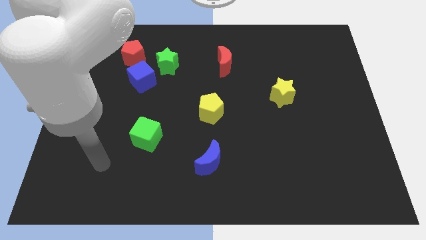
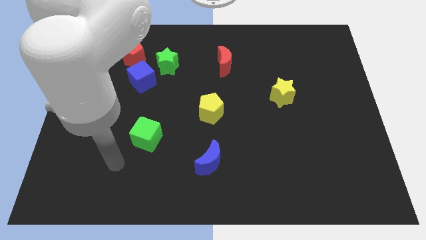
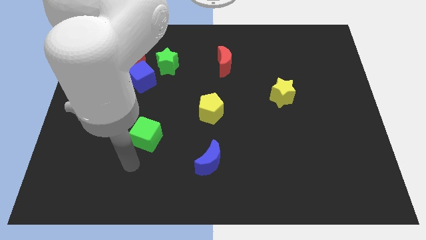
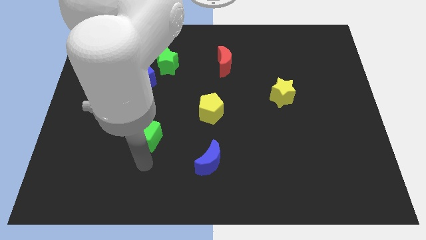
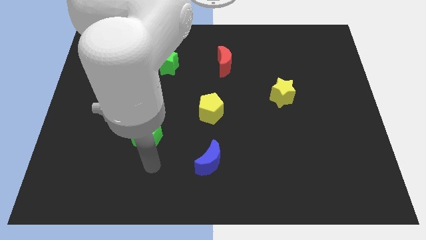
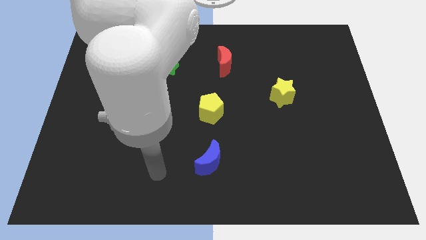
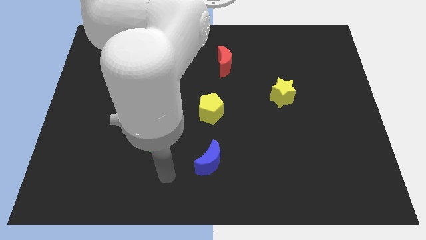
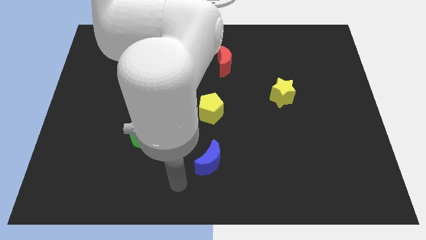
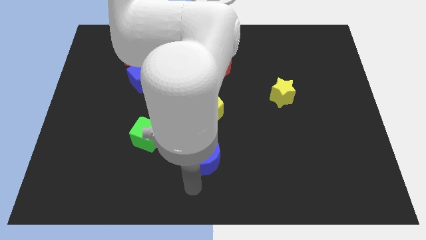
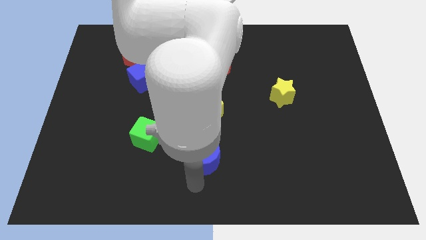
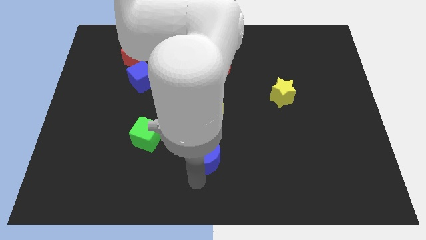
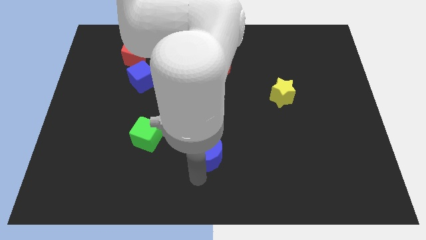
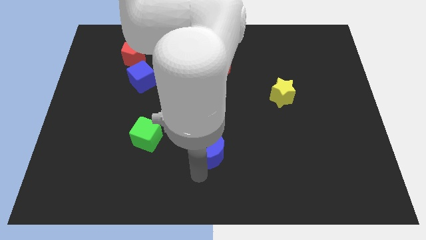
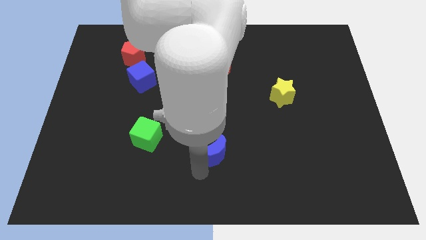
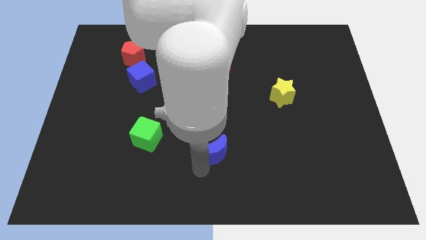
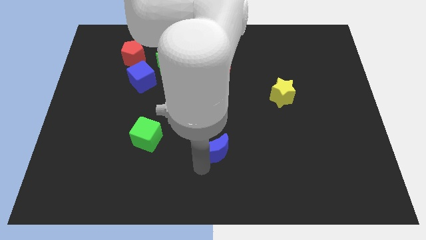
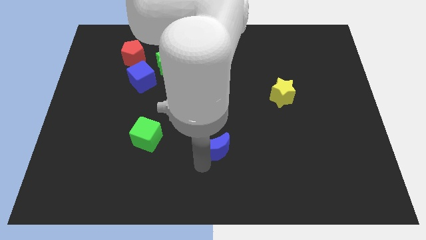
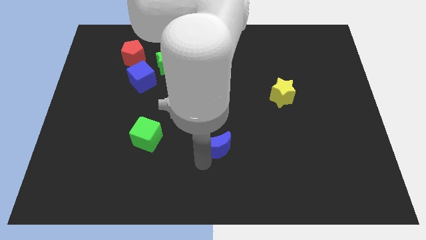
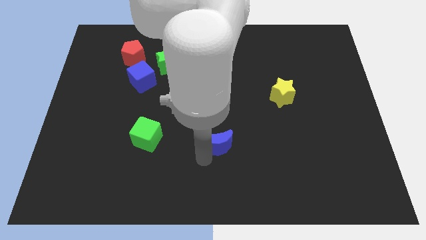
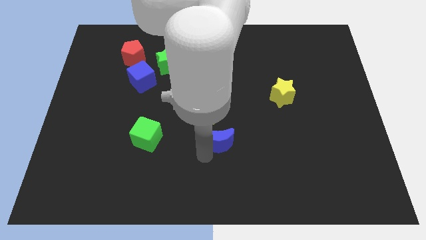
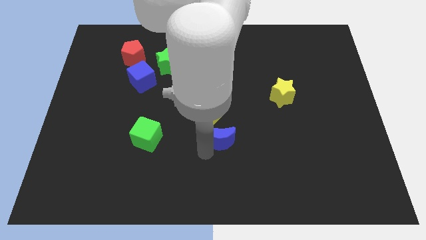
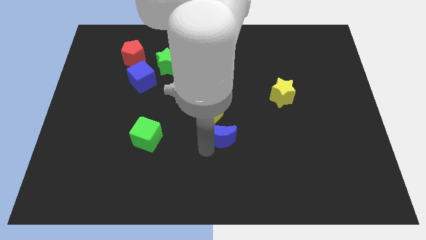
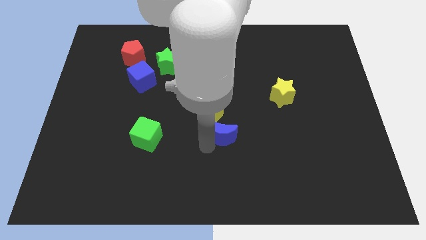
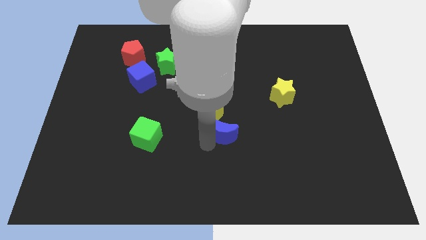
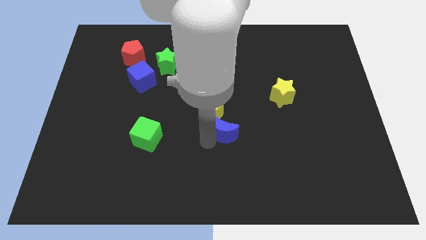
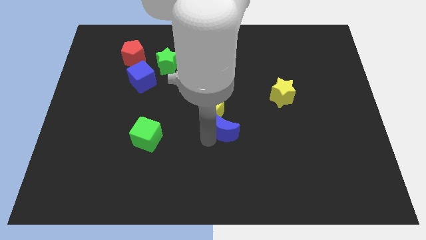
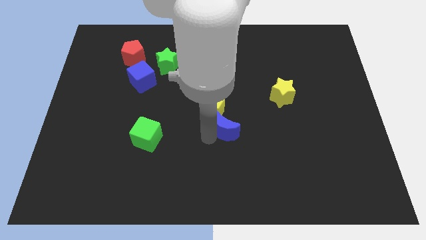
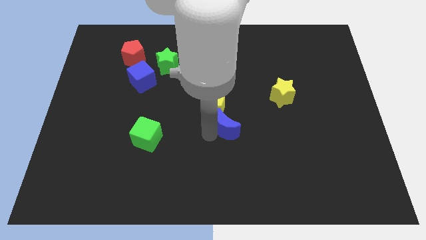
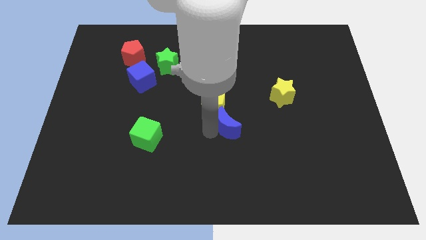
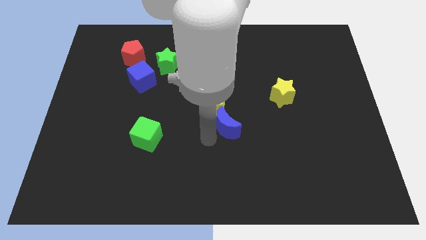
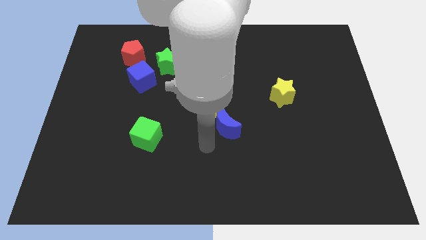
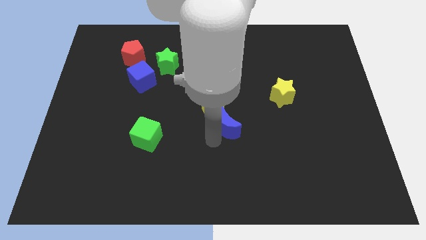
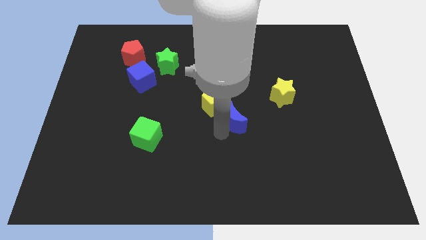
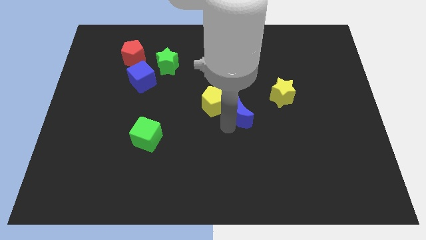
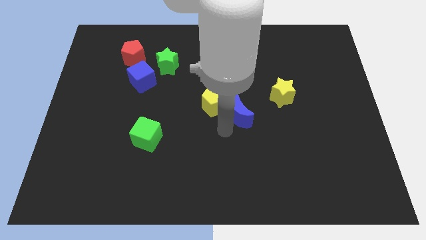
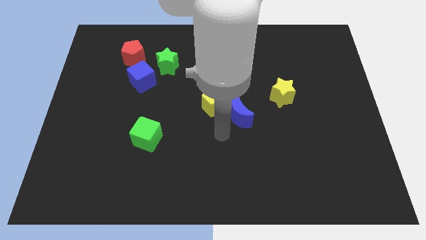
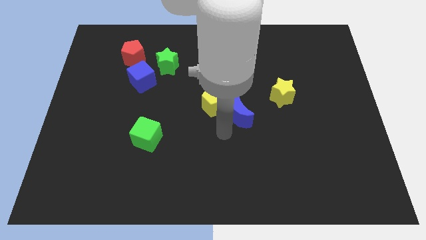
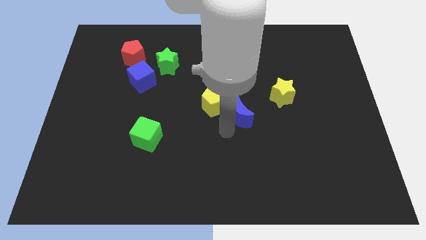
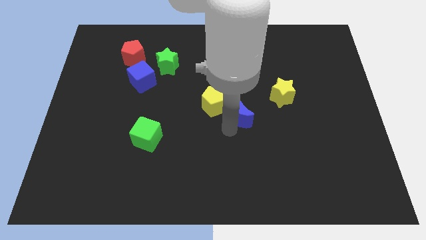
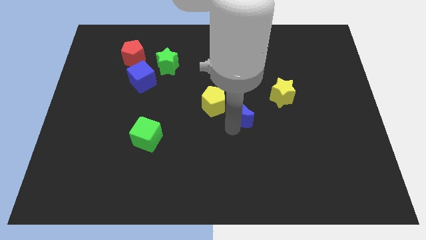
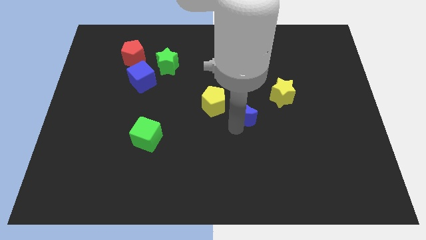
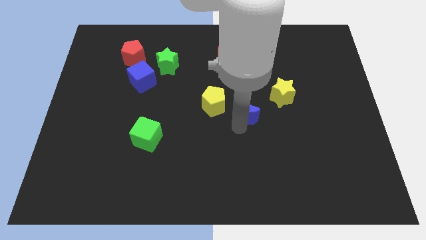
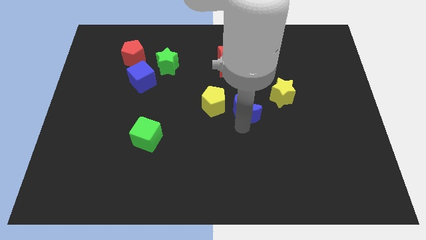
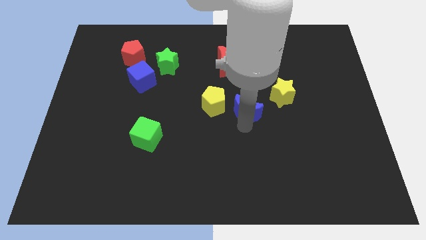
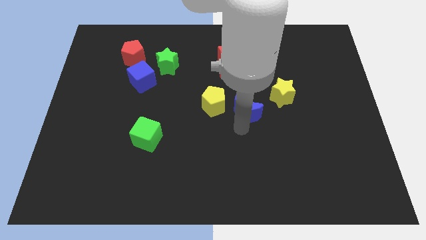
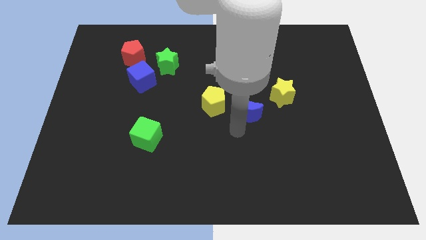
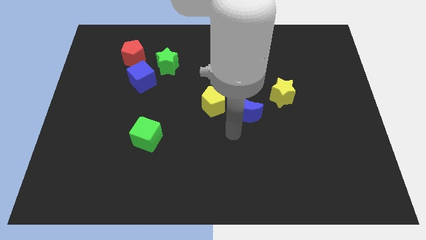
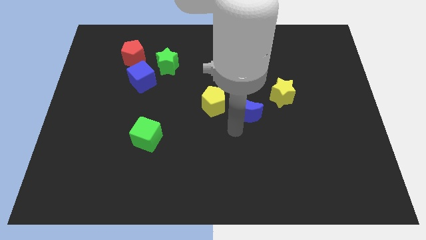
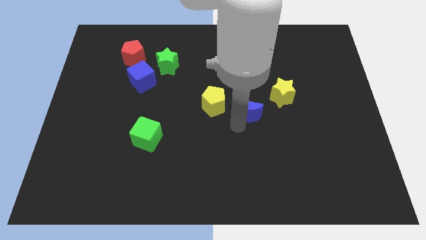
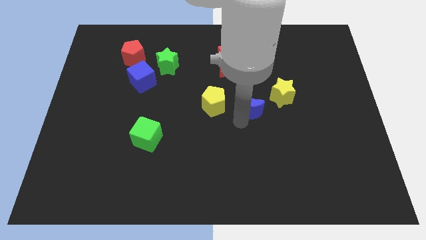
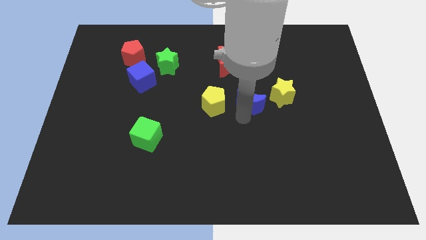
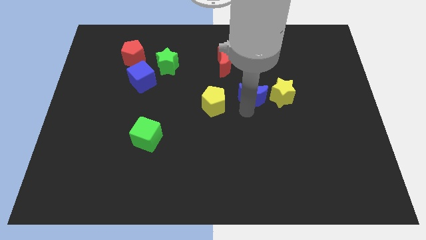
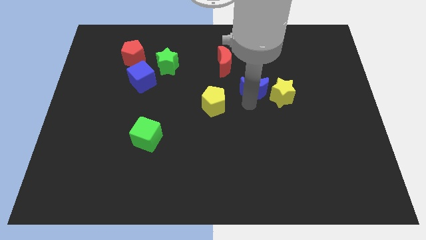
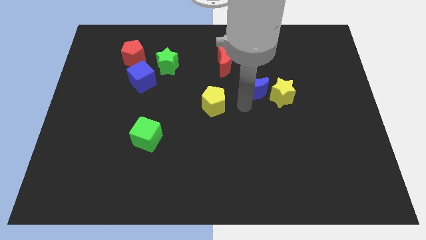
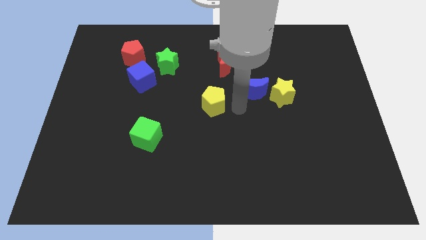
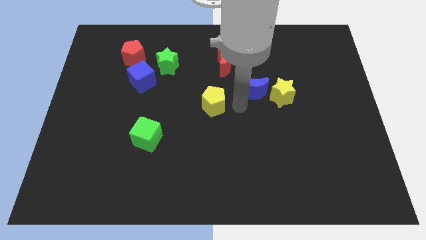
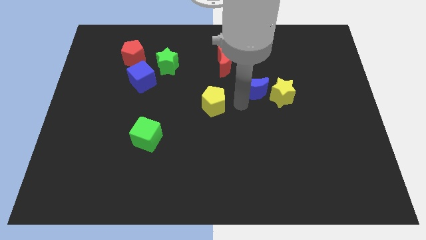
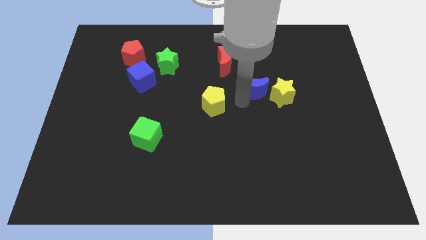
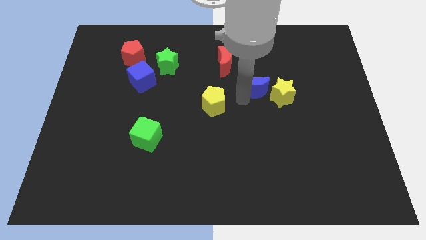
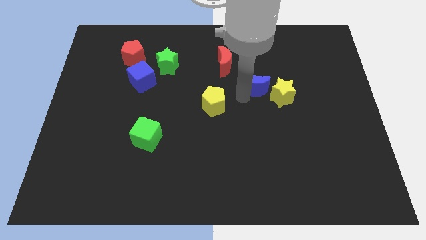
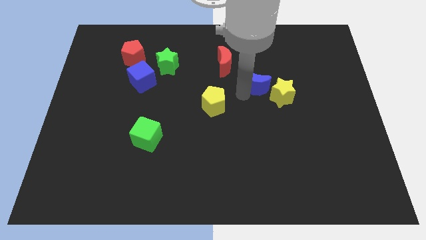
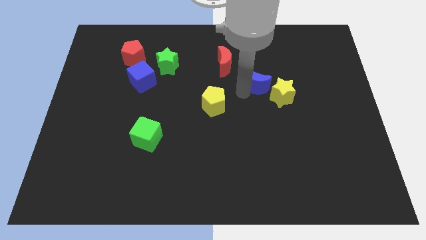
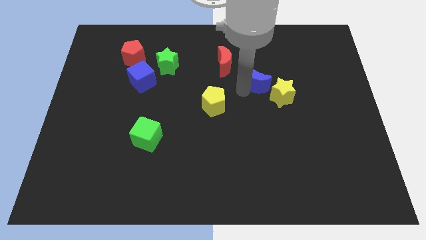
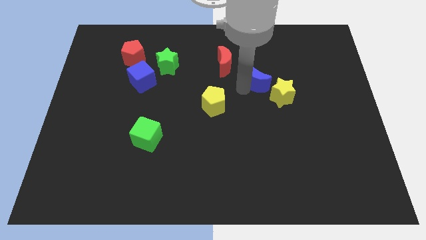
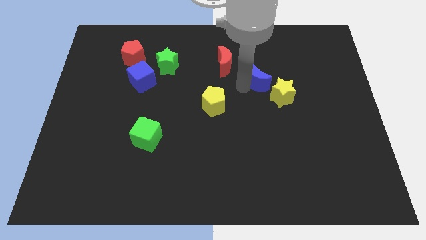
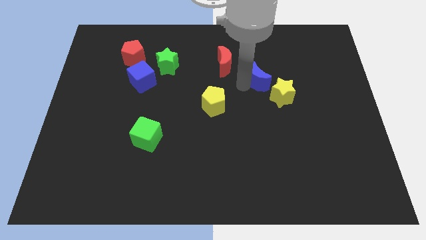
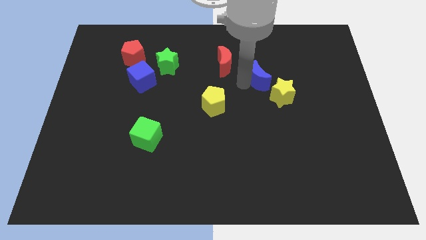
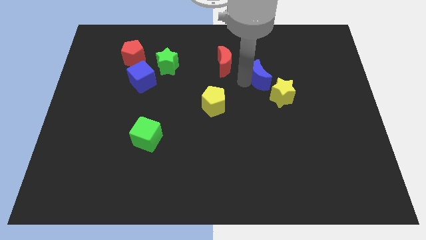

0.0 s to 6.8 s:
slide the blue moon above the yellow star

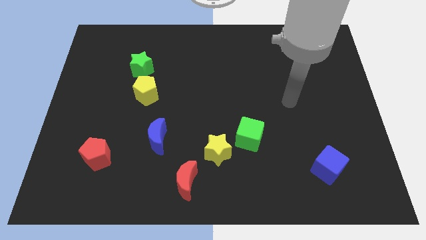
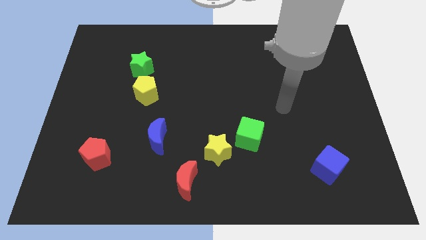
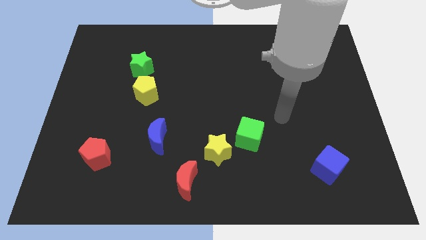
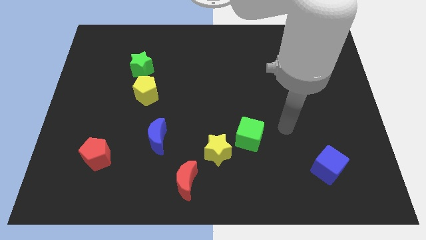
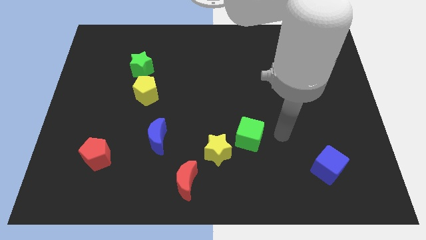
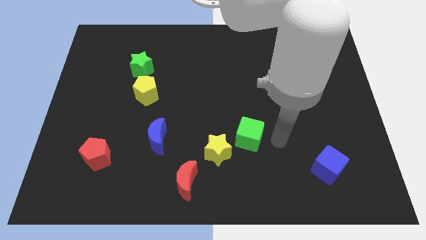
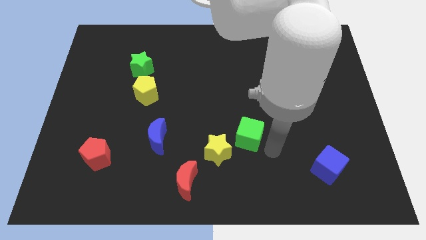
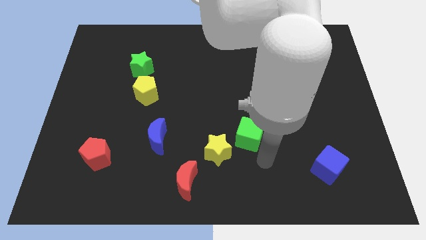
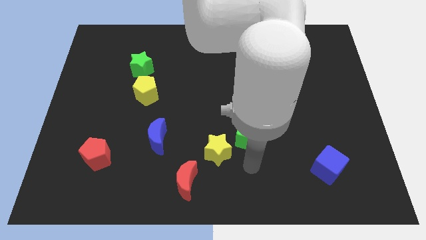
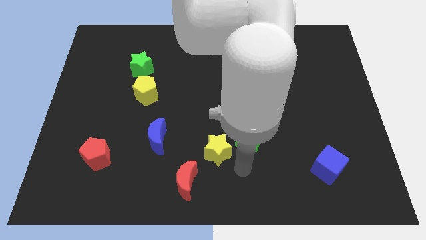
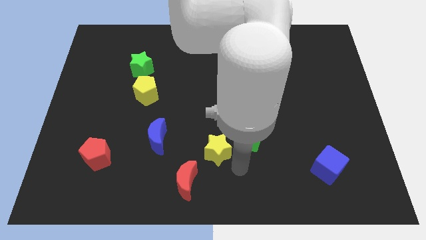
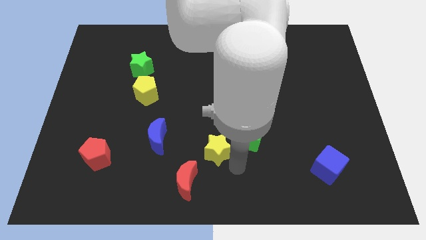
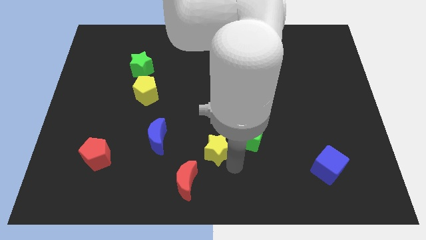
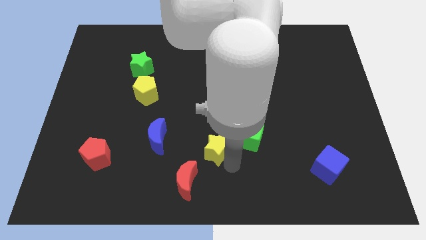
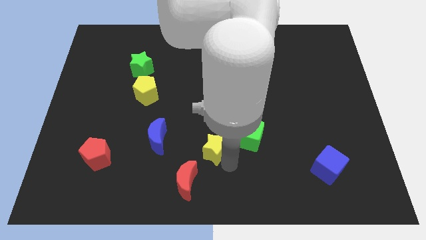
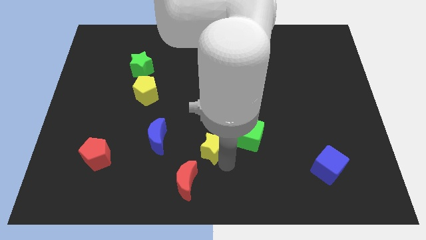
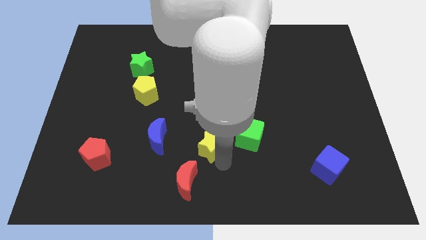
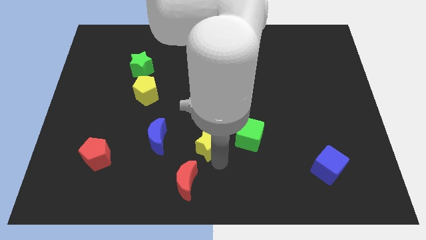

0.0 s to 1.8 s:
put the yellow star above the red moon
